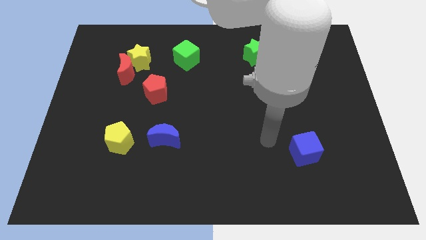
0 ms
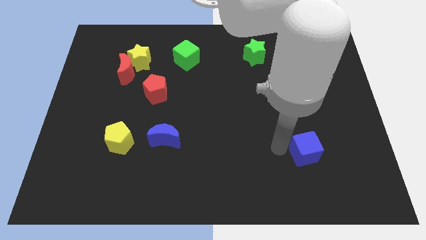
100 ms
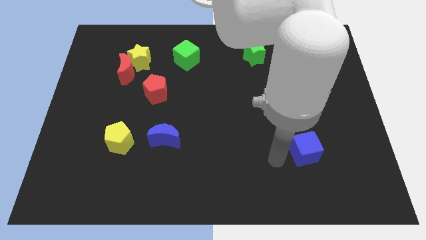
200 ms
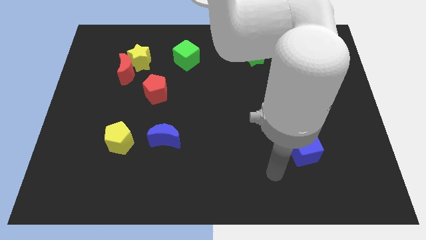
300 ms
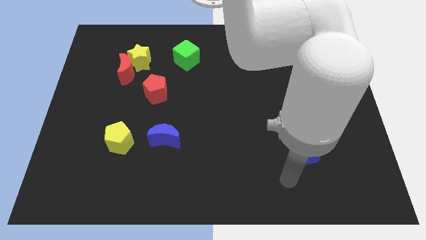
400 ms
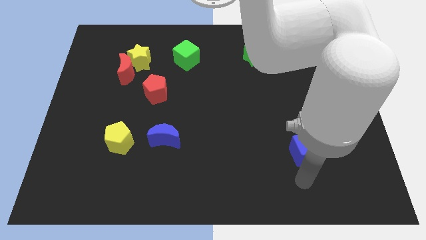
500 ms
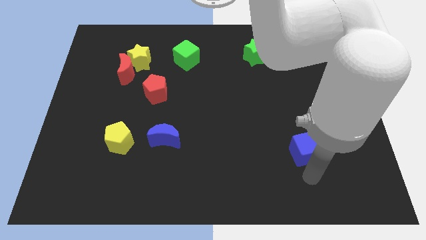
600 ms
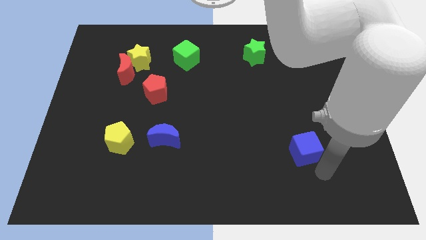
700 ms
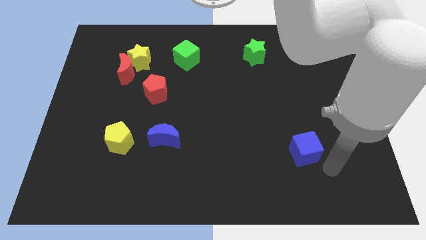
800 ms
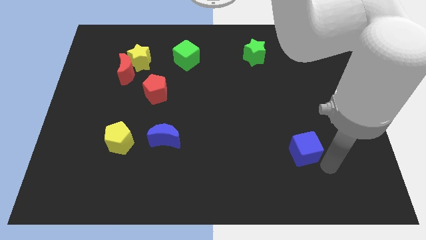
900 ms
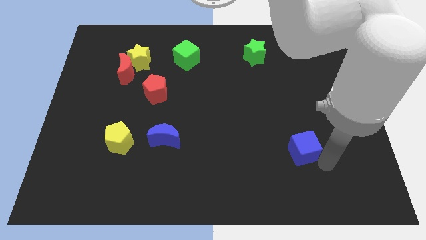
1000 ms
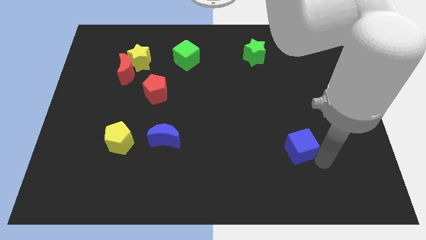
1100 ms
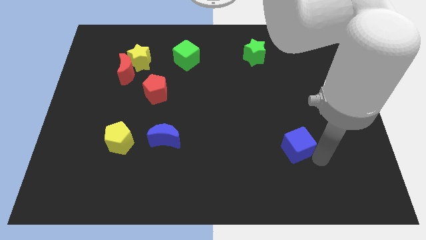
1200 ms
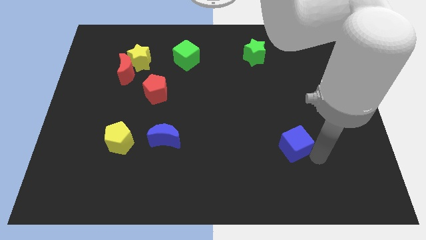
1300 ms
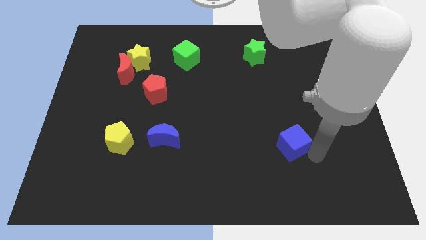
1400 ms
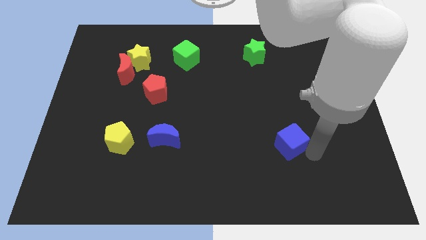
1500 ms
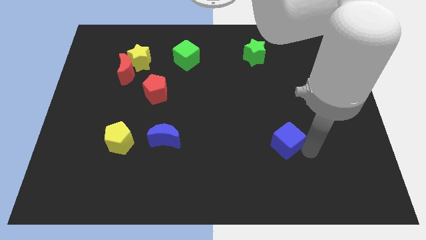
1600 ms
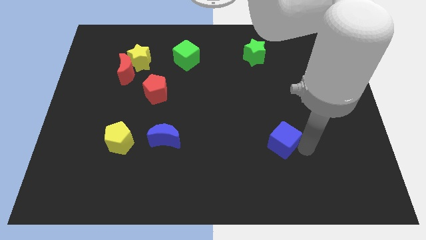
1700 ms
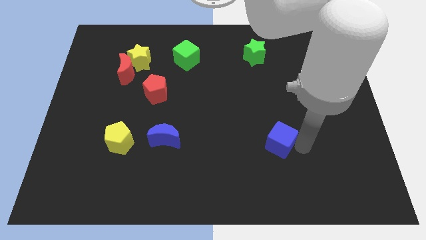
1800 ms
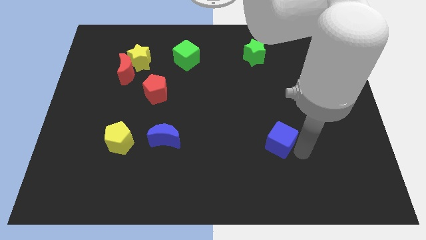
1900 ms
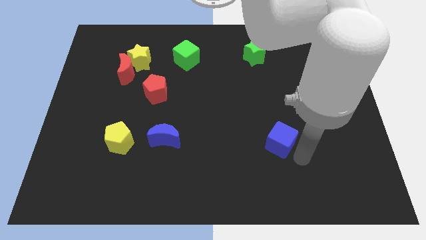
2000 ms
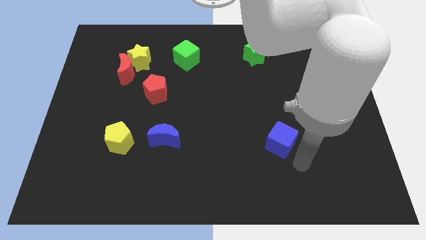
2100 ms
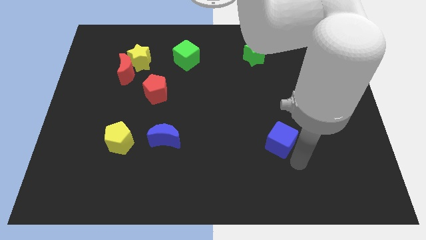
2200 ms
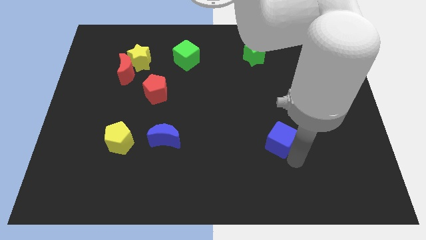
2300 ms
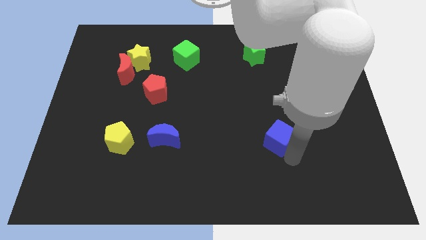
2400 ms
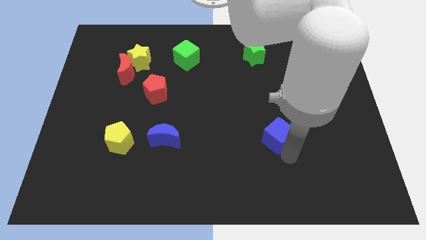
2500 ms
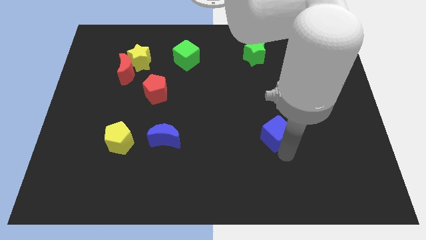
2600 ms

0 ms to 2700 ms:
push the blue cube up and then to the left slightly

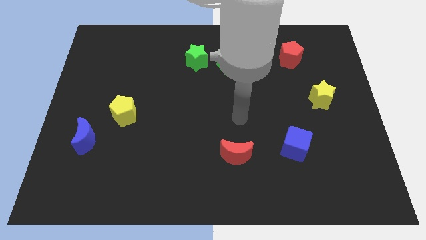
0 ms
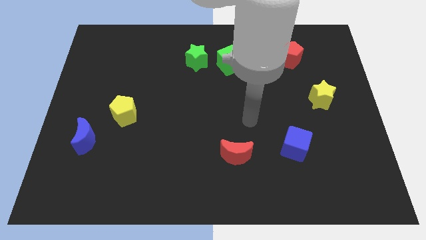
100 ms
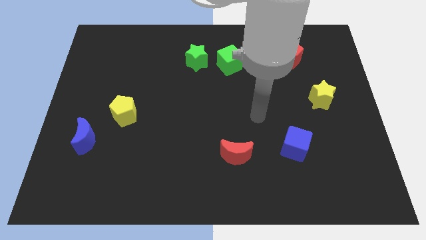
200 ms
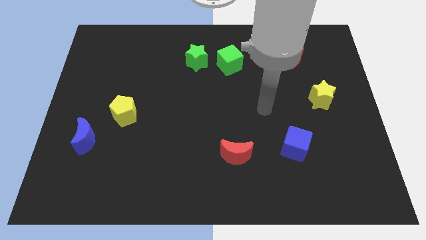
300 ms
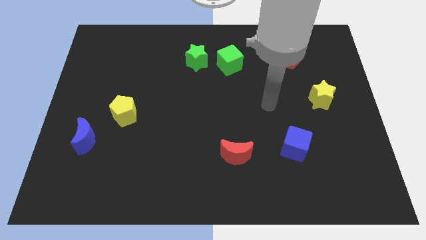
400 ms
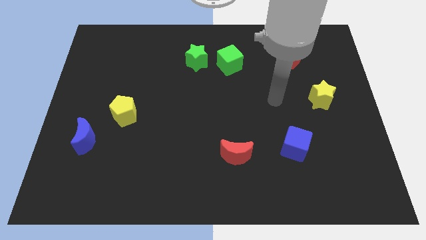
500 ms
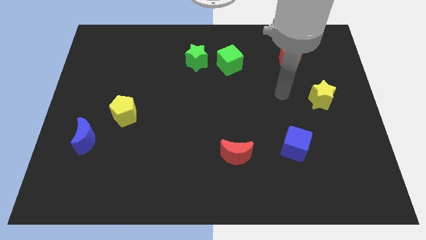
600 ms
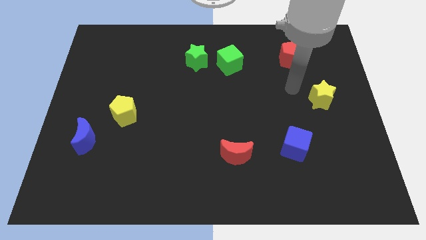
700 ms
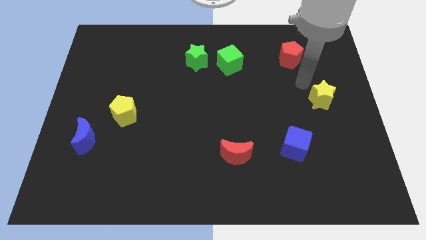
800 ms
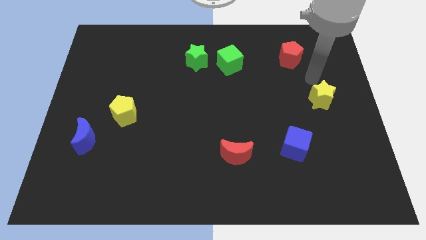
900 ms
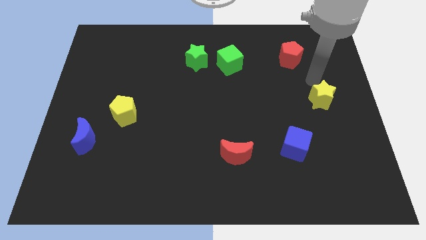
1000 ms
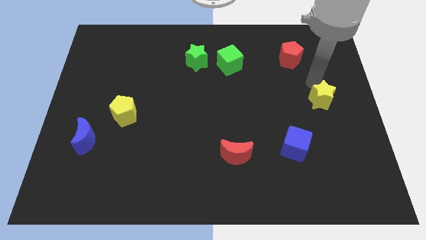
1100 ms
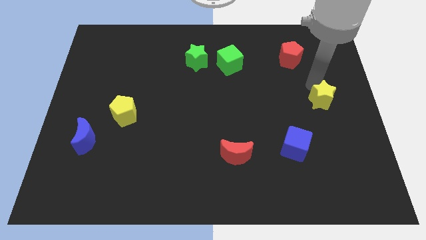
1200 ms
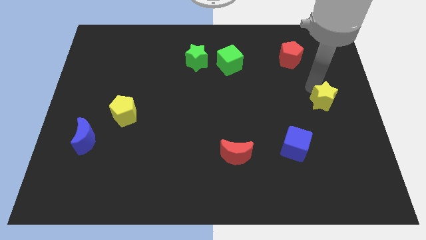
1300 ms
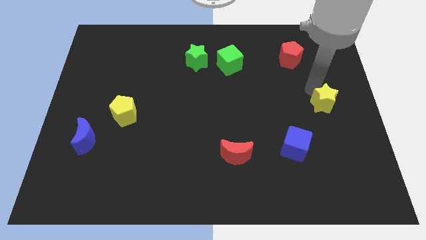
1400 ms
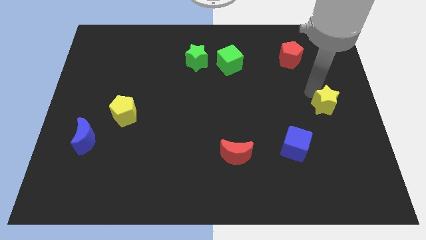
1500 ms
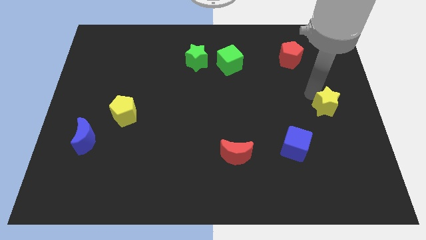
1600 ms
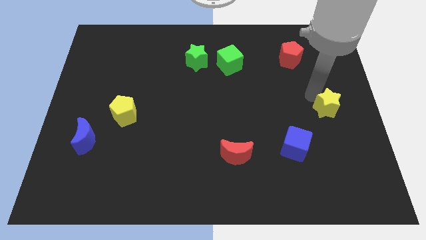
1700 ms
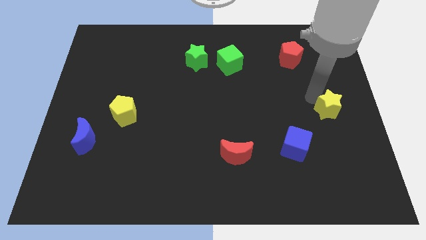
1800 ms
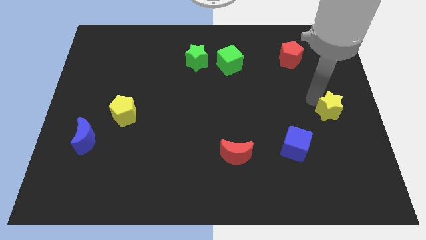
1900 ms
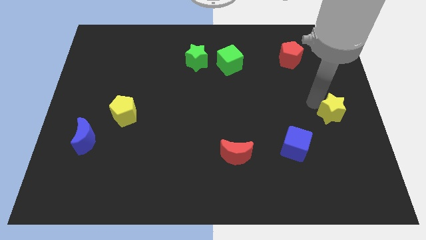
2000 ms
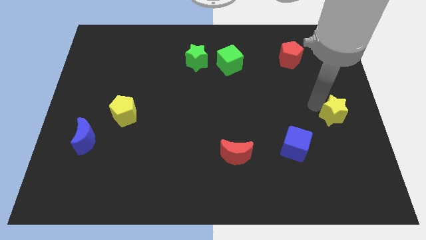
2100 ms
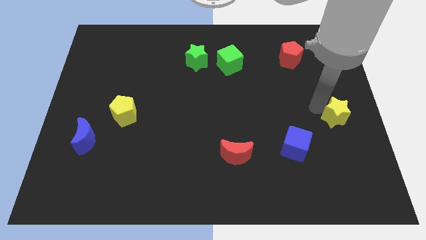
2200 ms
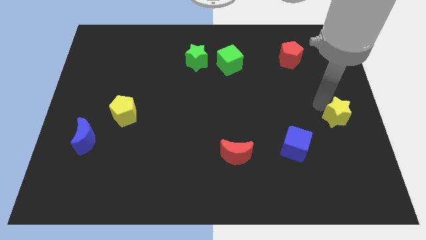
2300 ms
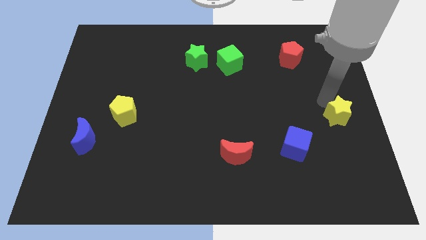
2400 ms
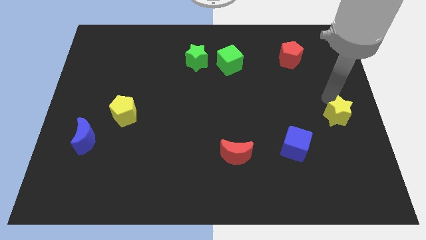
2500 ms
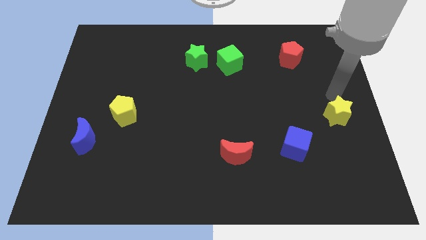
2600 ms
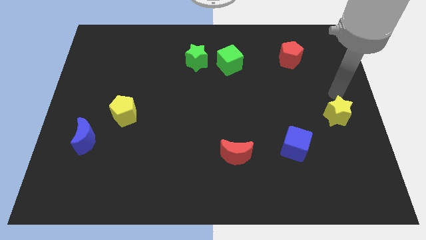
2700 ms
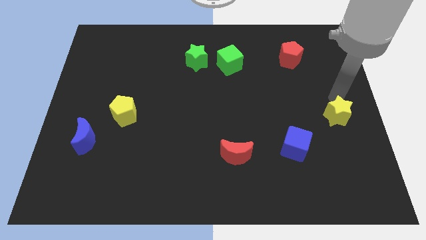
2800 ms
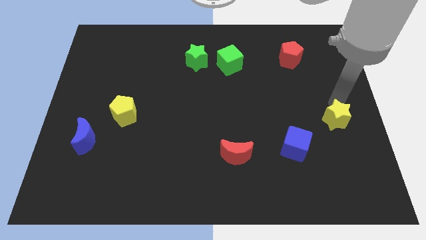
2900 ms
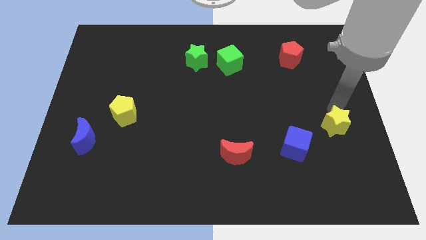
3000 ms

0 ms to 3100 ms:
slightly slide the yellow star downwards

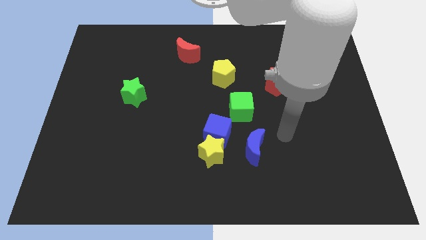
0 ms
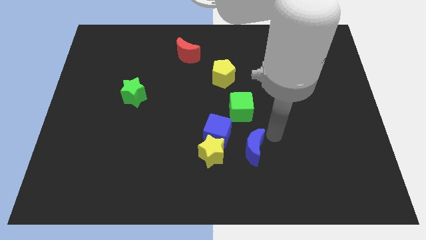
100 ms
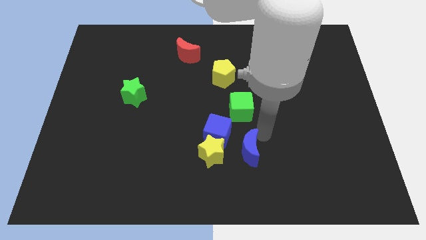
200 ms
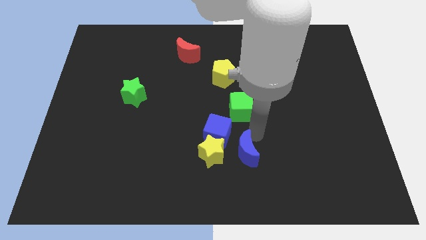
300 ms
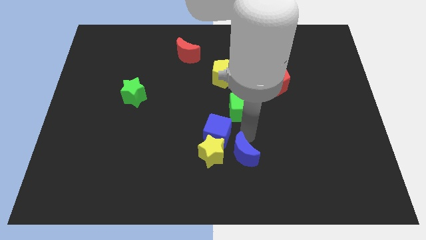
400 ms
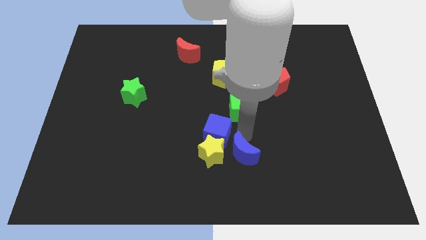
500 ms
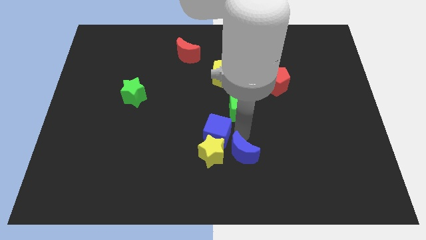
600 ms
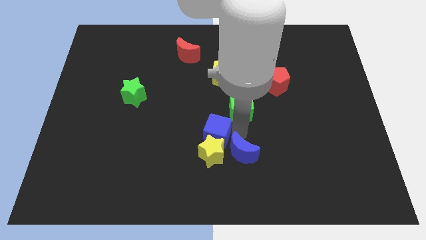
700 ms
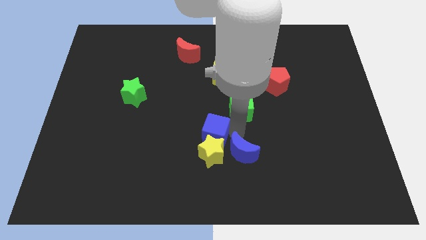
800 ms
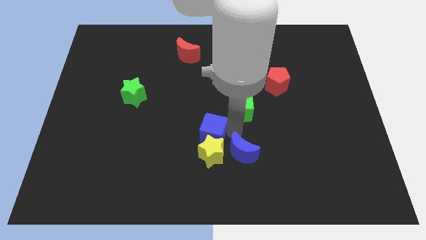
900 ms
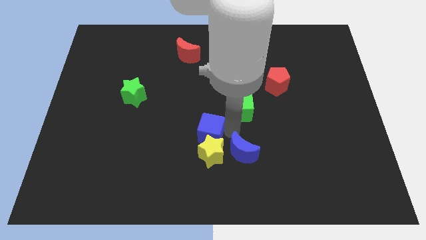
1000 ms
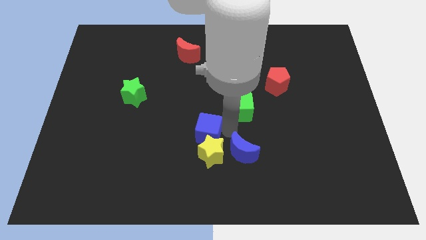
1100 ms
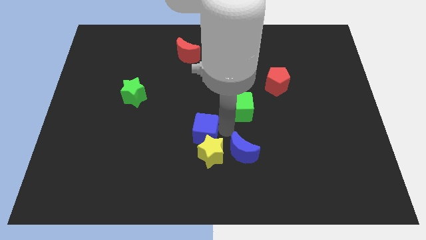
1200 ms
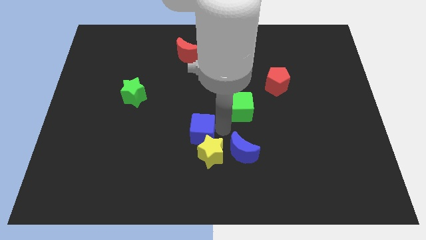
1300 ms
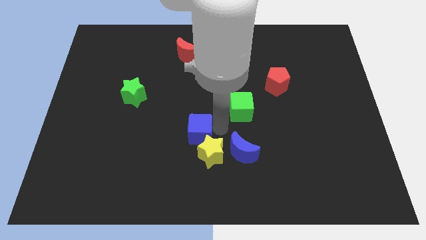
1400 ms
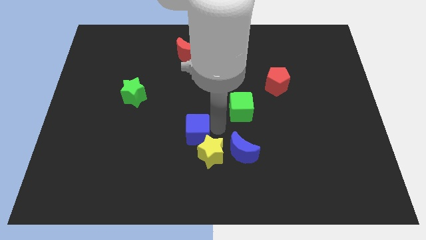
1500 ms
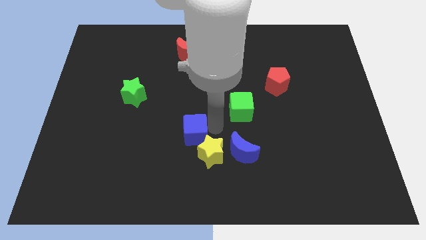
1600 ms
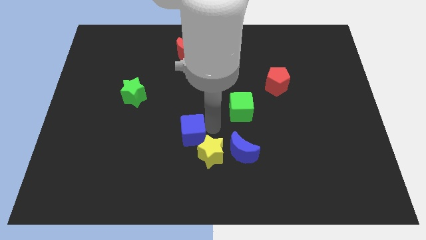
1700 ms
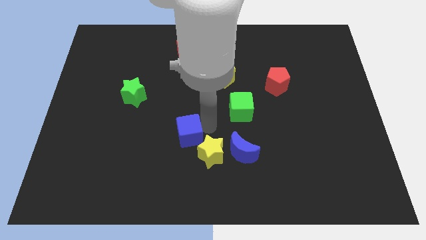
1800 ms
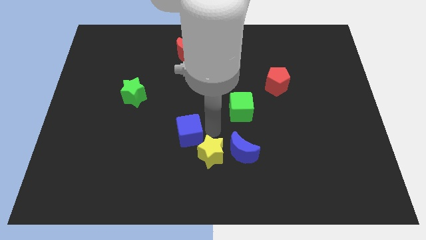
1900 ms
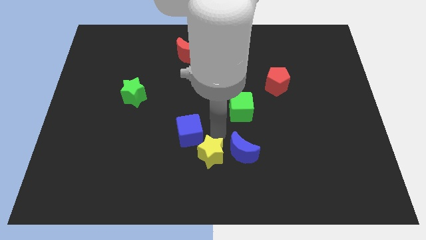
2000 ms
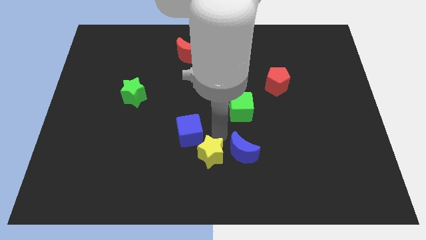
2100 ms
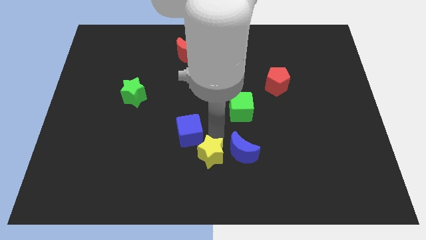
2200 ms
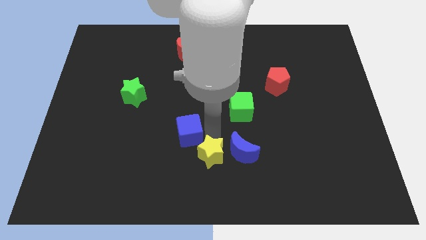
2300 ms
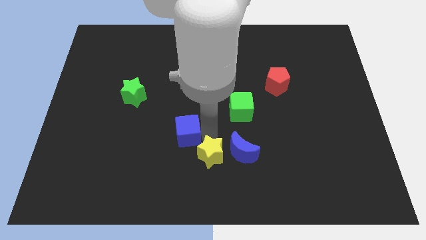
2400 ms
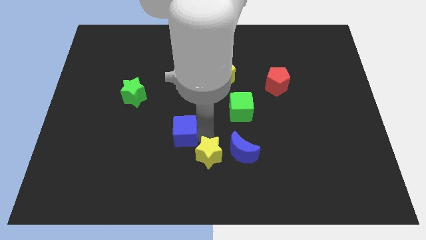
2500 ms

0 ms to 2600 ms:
slightly slide the blue cube to the left
